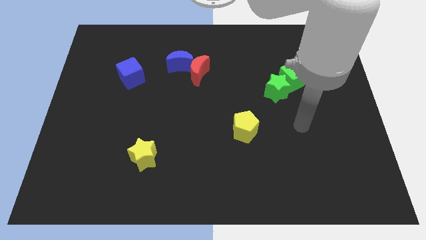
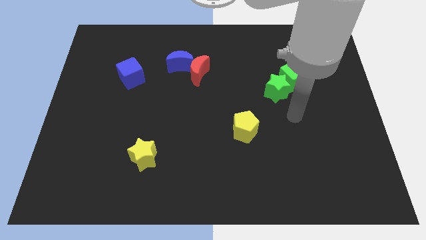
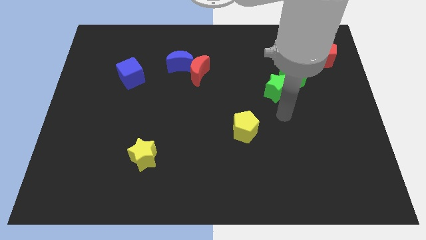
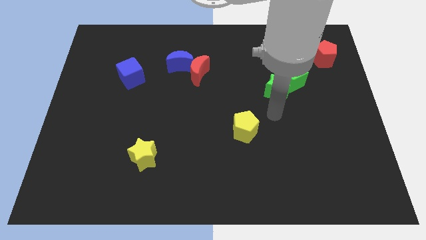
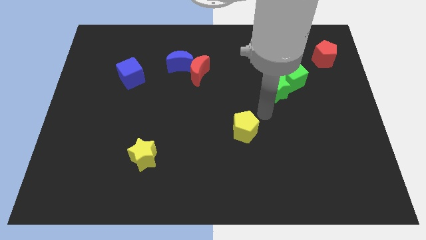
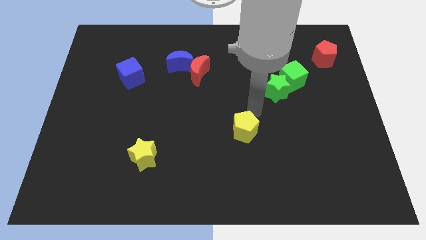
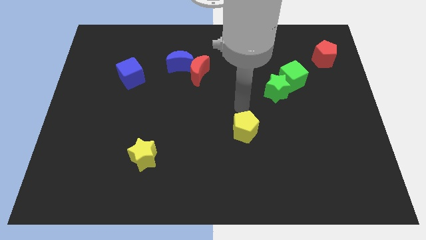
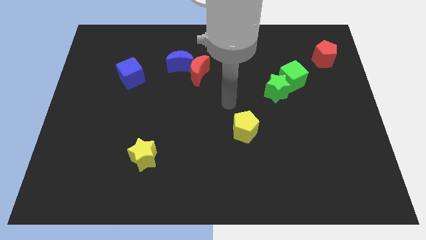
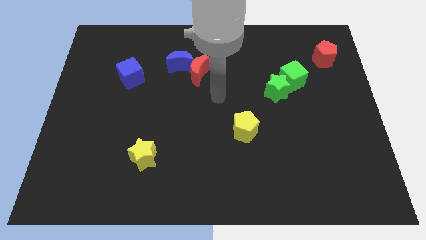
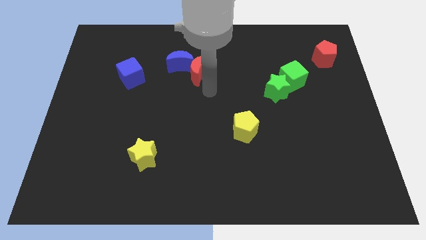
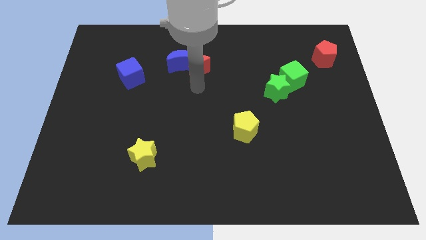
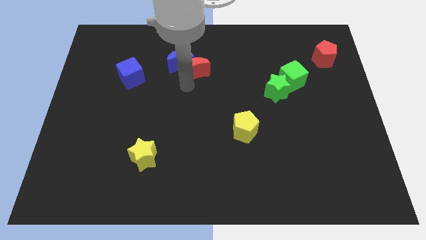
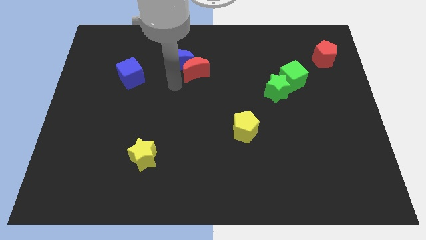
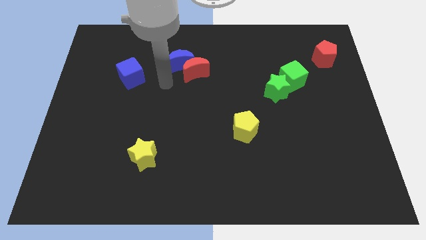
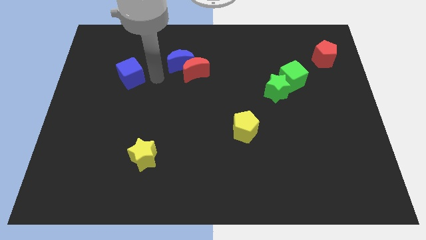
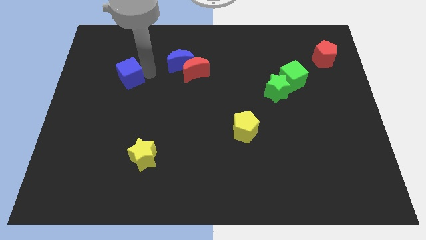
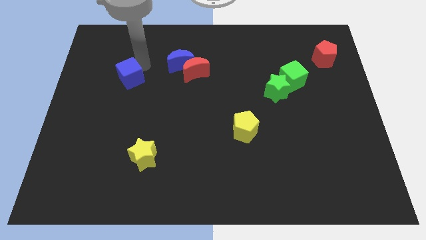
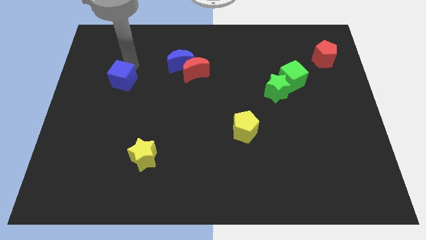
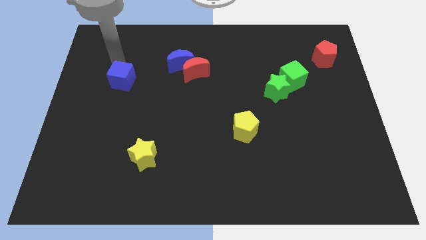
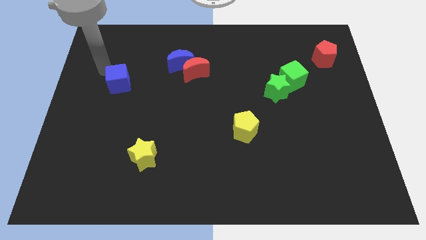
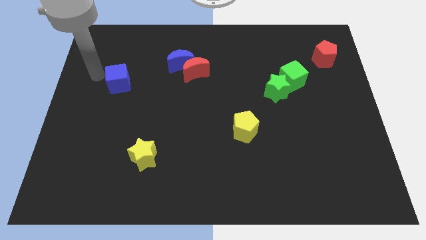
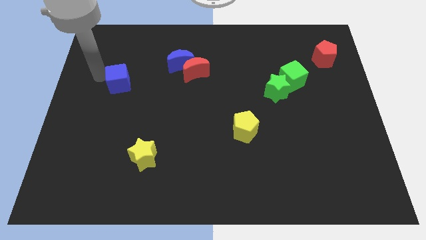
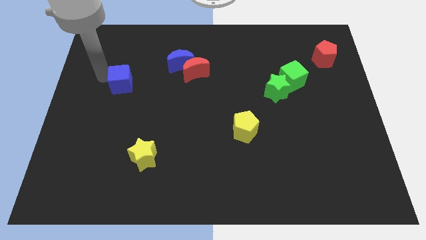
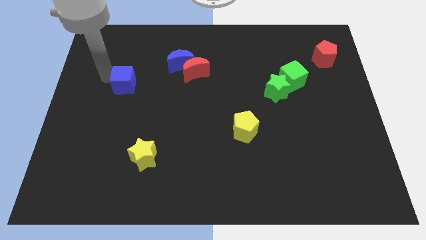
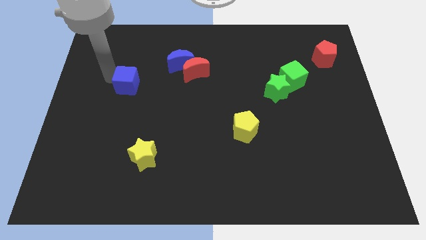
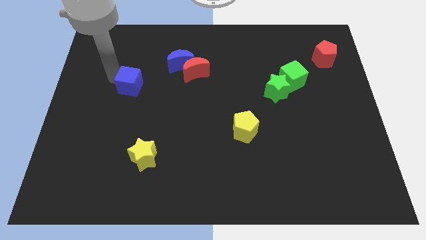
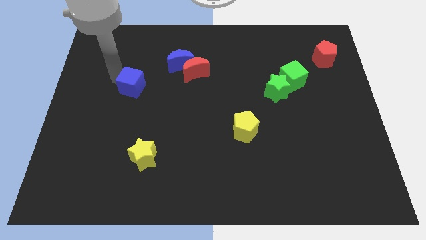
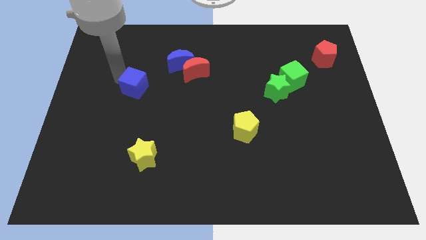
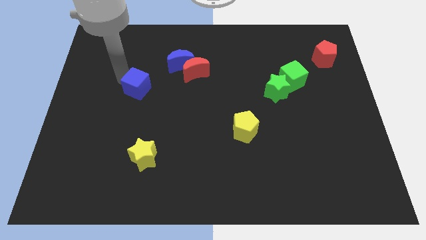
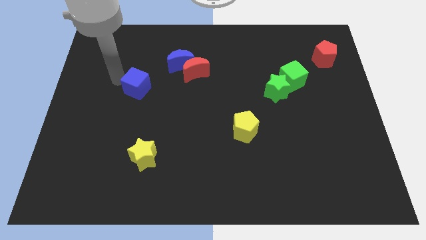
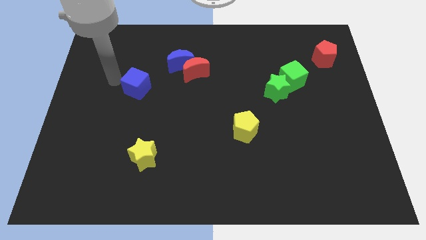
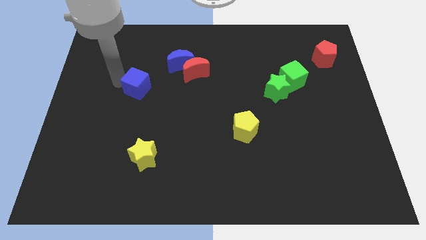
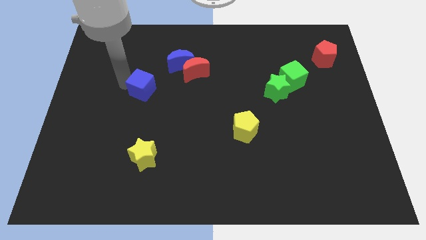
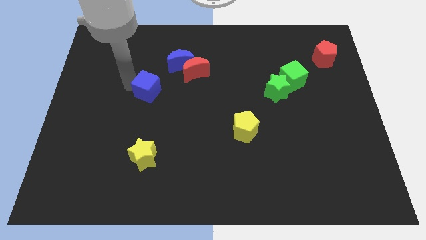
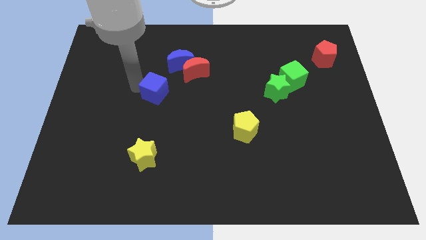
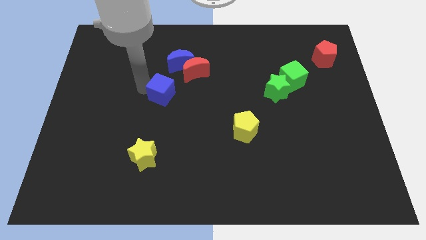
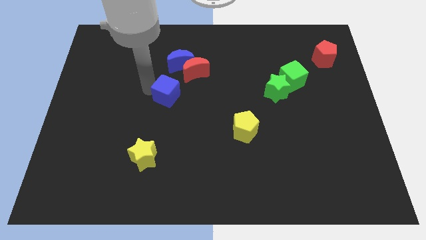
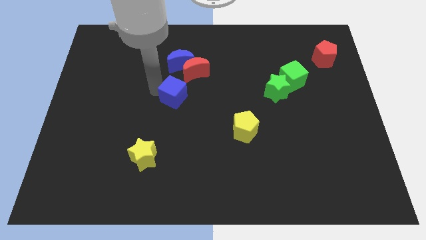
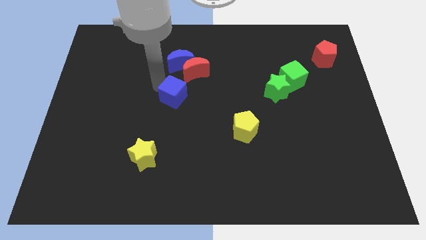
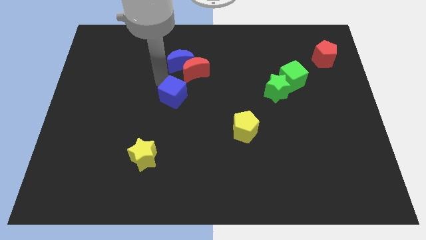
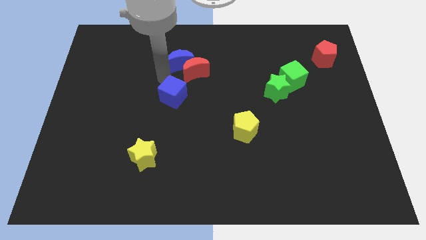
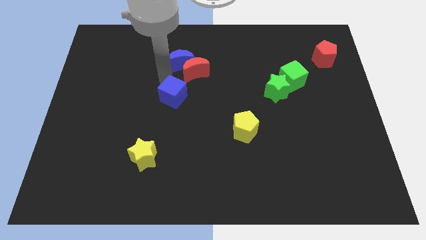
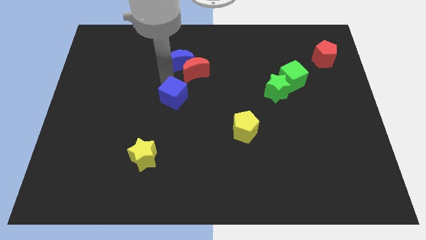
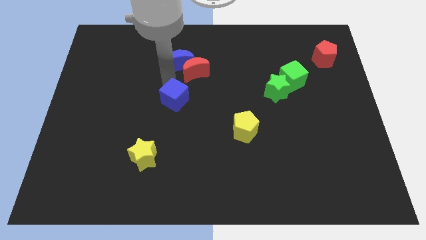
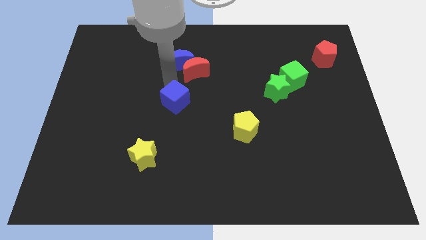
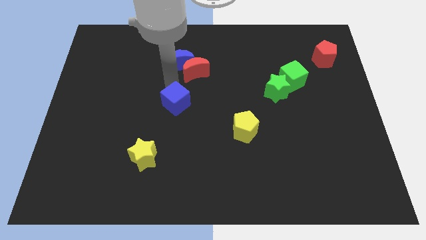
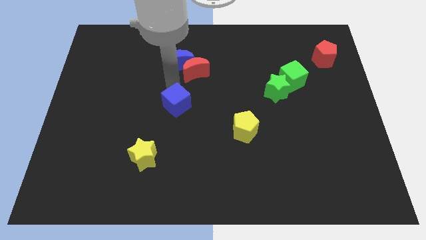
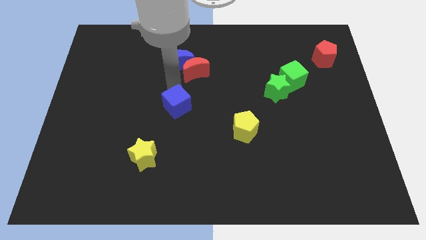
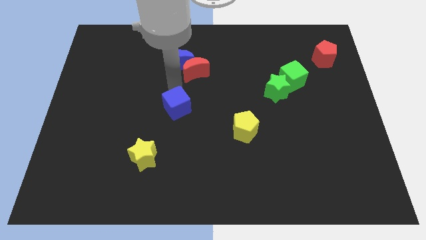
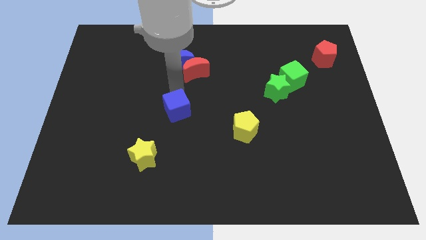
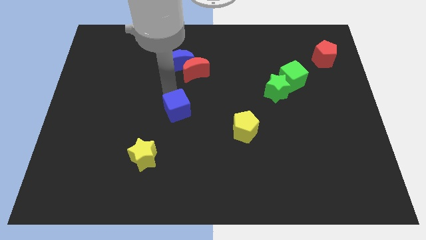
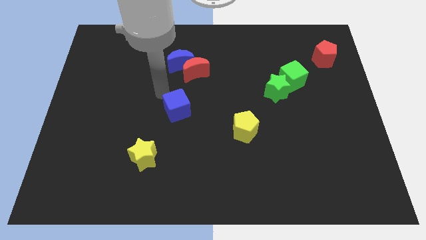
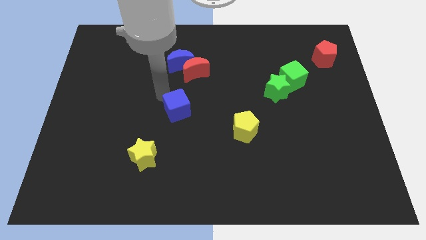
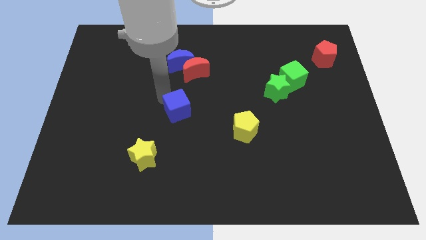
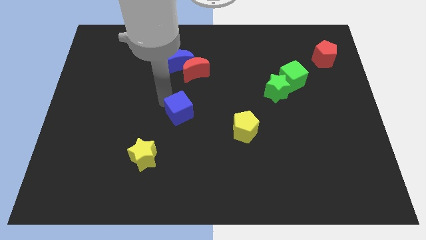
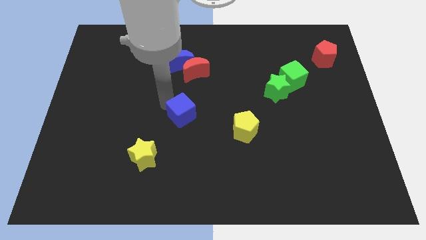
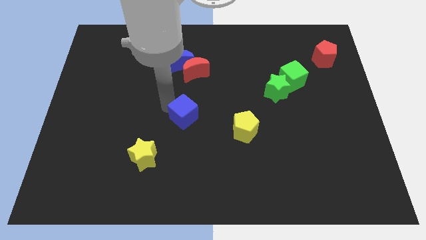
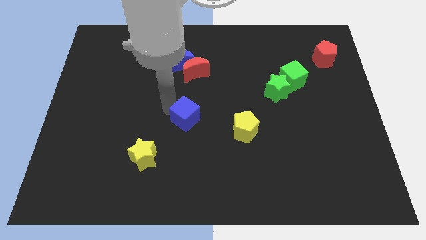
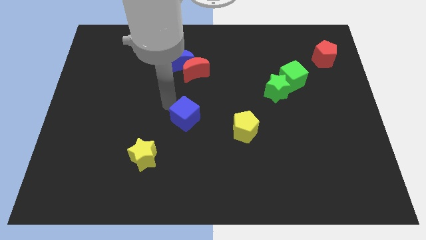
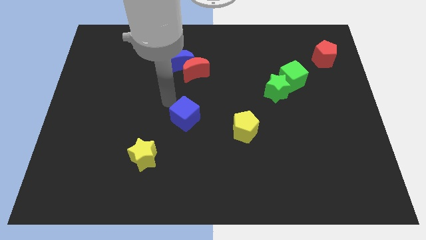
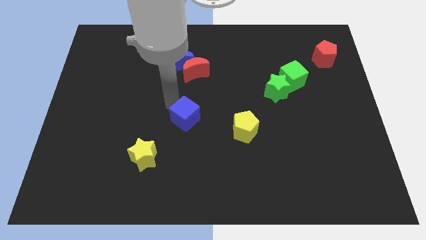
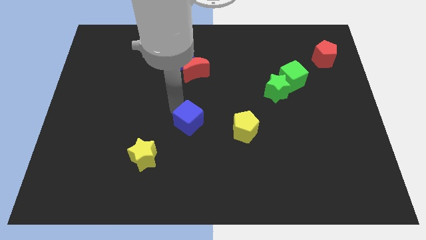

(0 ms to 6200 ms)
slide the blue cube downwards and then to the right

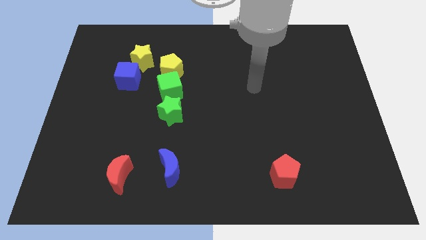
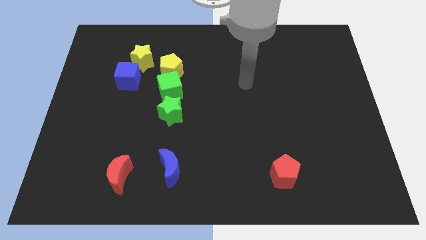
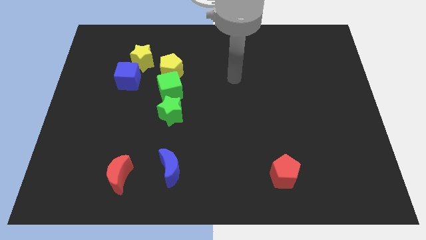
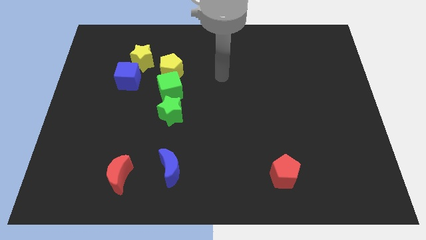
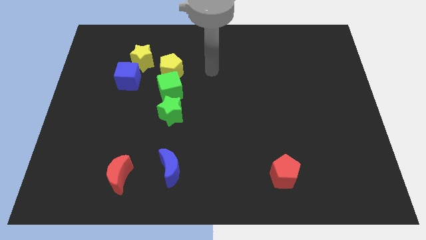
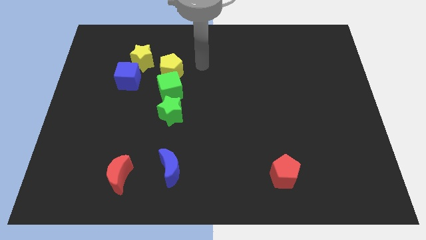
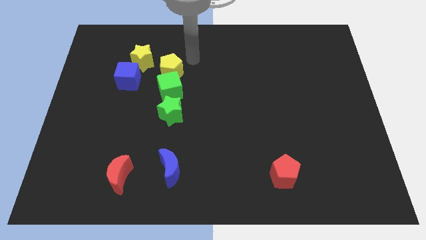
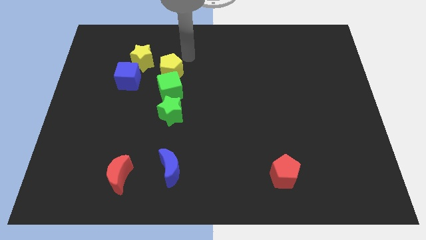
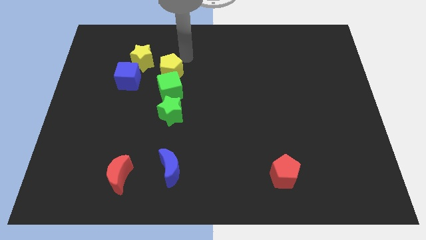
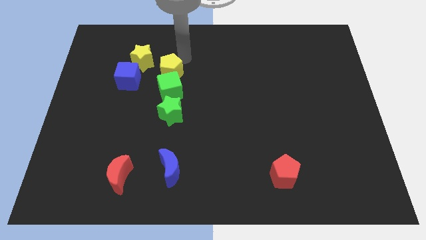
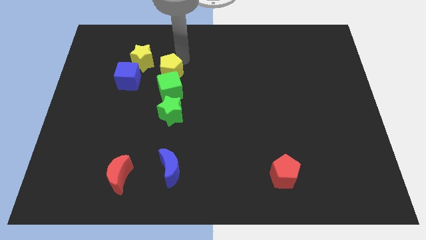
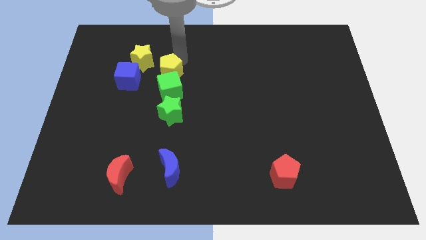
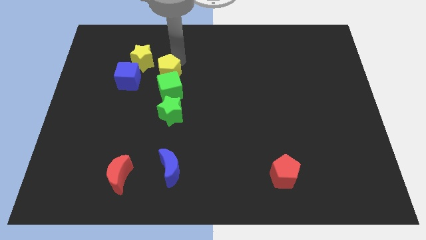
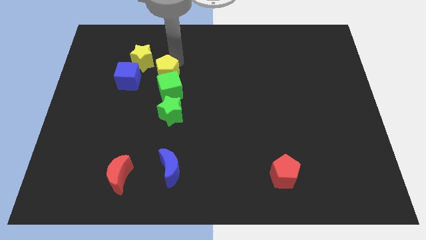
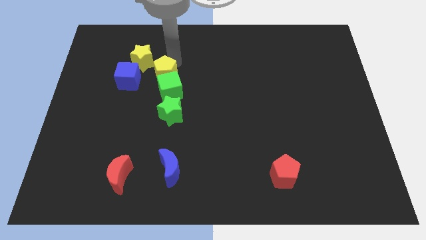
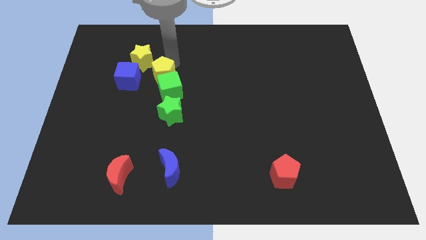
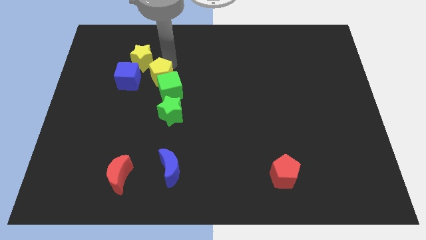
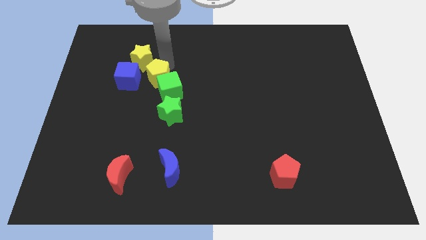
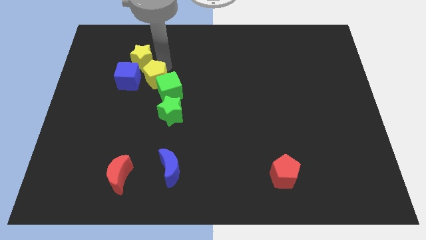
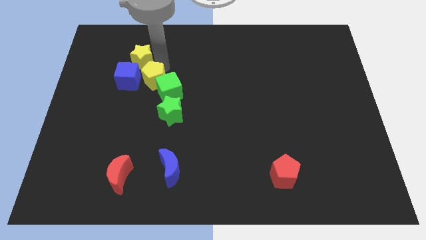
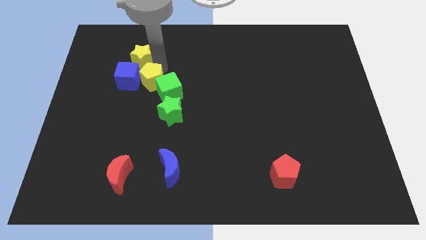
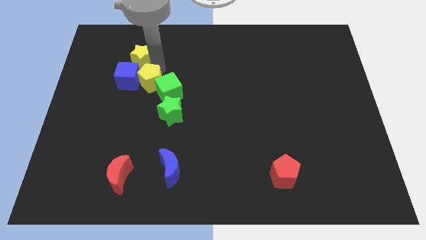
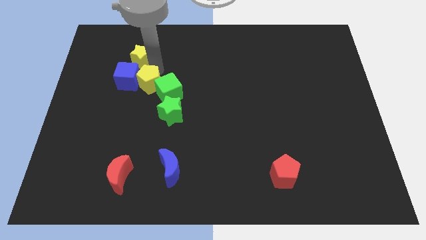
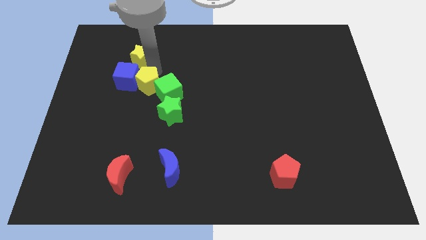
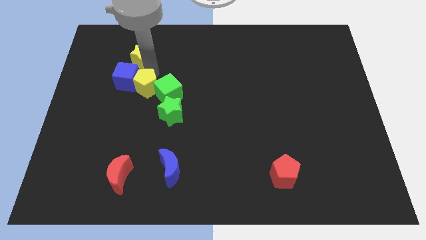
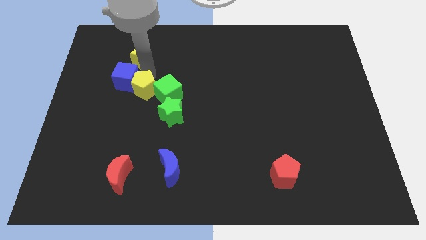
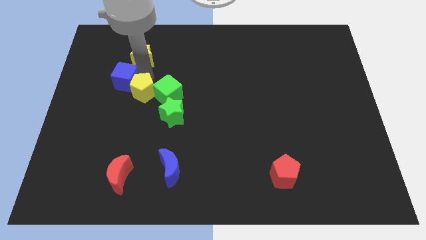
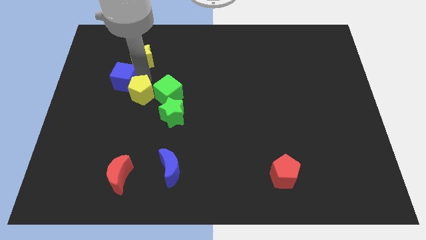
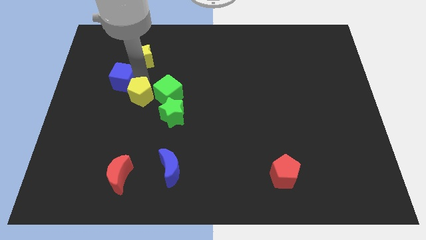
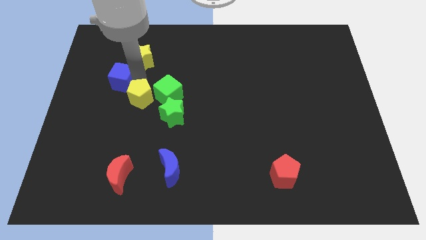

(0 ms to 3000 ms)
slightly slide the yellow pentagon downwards
